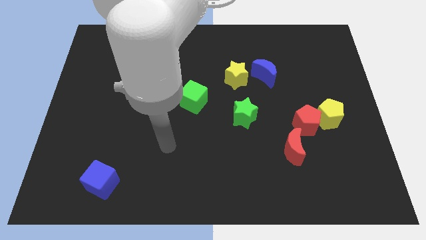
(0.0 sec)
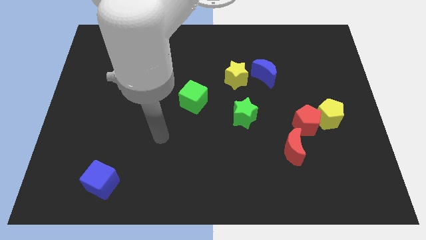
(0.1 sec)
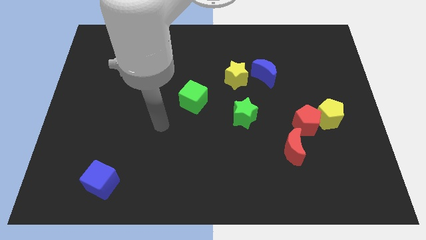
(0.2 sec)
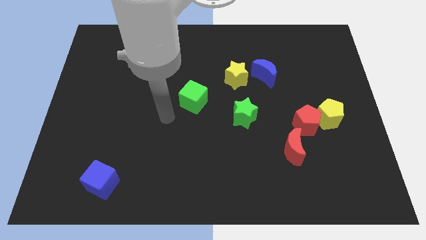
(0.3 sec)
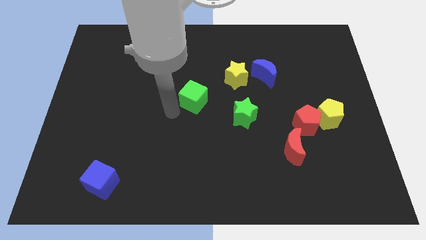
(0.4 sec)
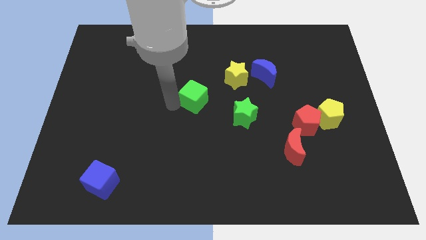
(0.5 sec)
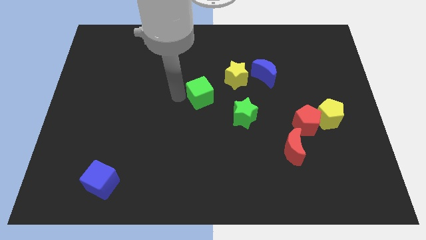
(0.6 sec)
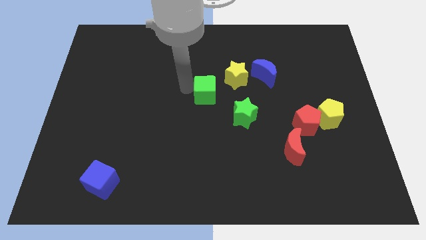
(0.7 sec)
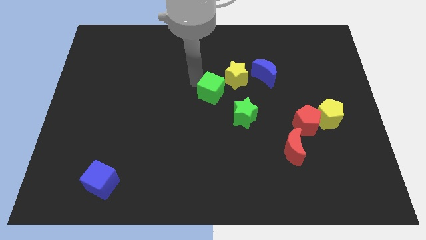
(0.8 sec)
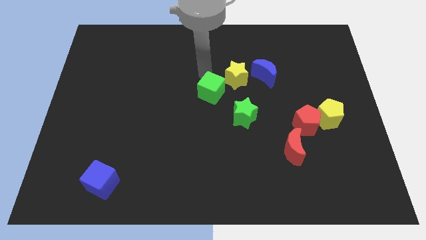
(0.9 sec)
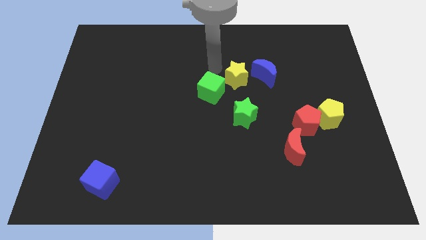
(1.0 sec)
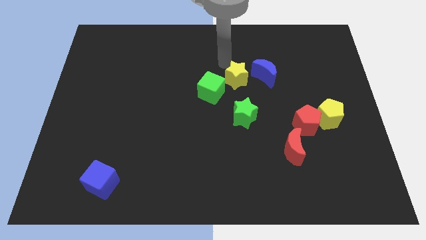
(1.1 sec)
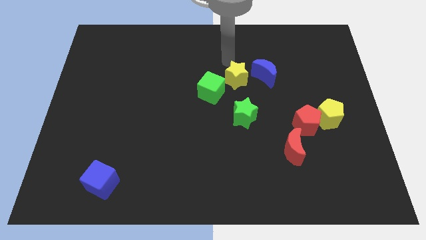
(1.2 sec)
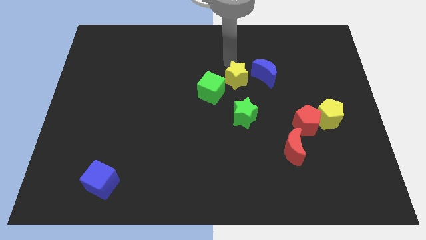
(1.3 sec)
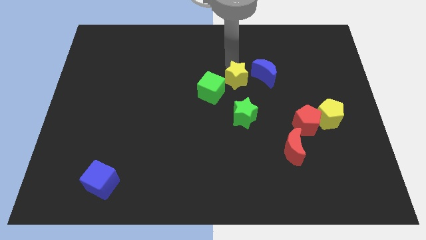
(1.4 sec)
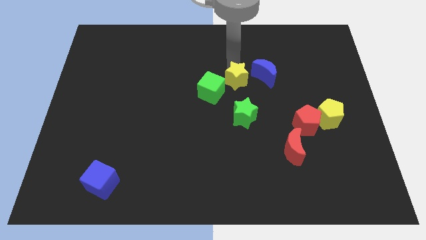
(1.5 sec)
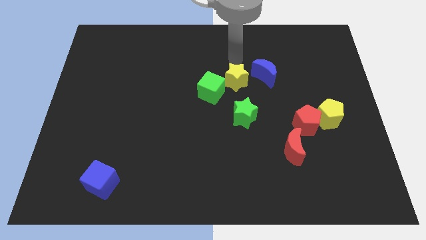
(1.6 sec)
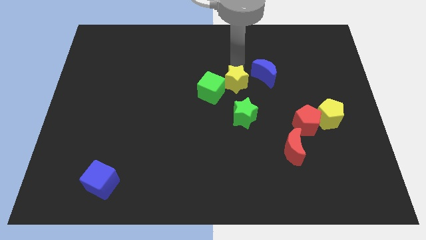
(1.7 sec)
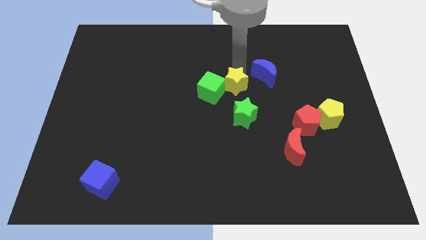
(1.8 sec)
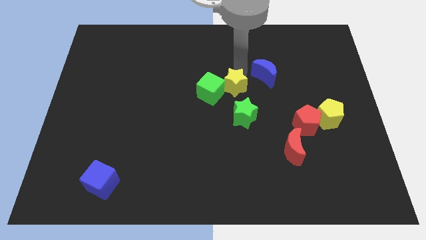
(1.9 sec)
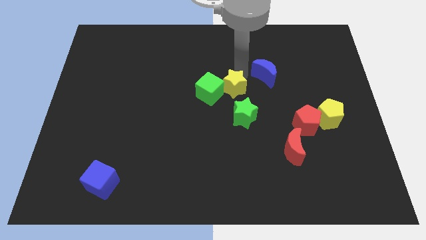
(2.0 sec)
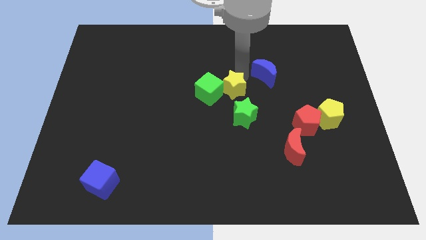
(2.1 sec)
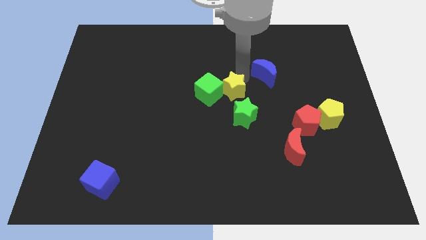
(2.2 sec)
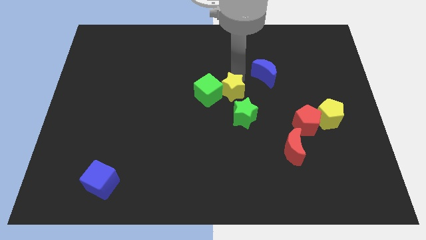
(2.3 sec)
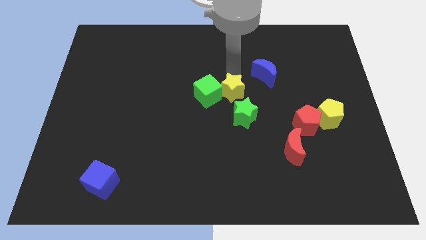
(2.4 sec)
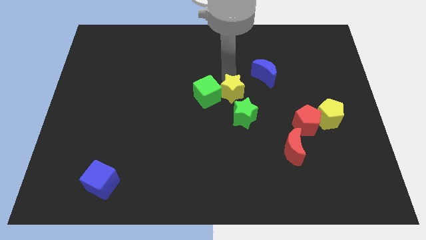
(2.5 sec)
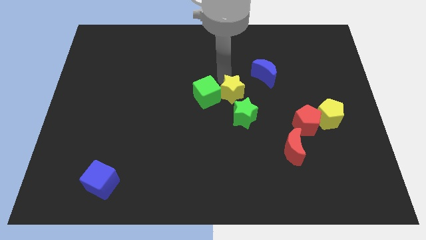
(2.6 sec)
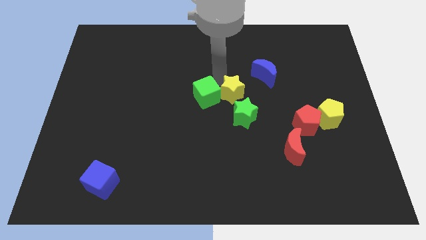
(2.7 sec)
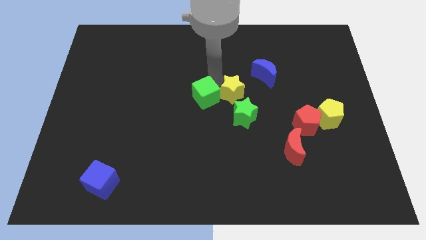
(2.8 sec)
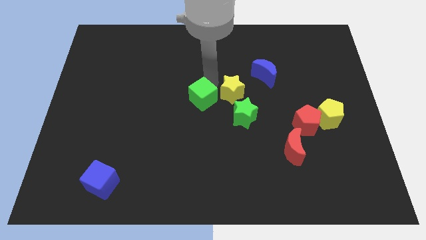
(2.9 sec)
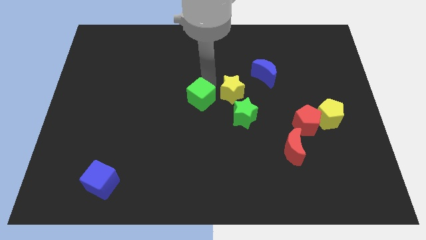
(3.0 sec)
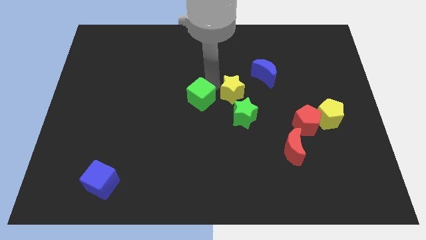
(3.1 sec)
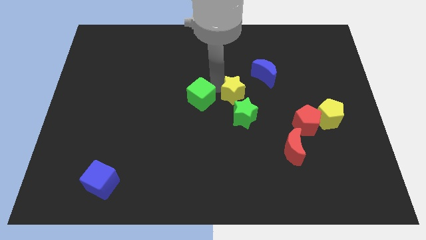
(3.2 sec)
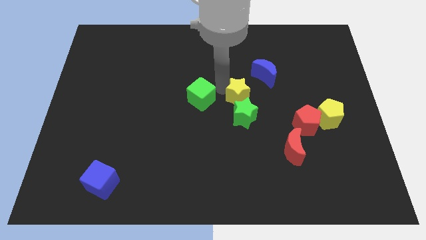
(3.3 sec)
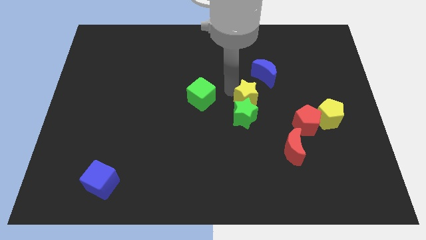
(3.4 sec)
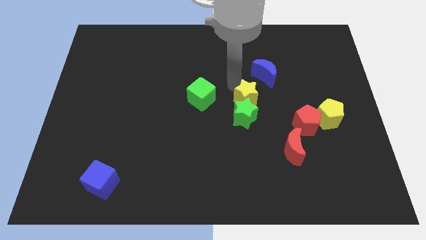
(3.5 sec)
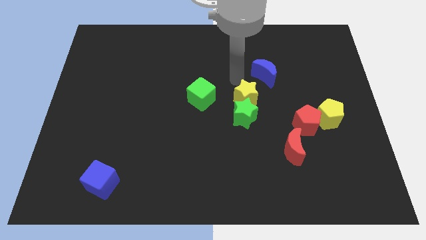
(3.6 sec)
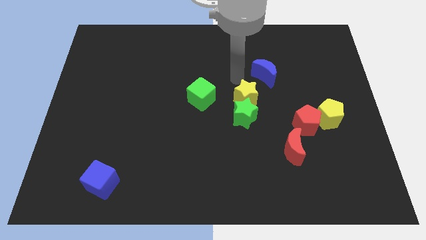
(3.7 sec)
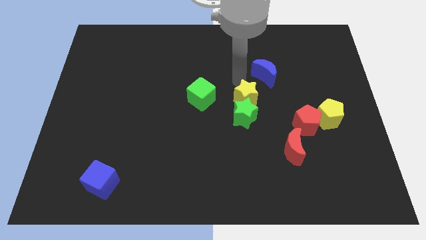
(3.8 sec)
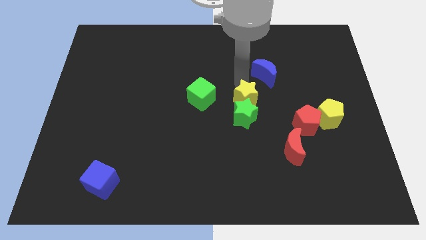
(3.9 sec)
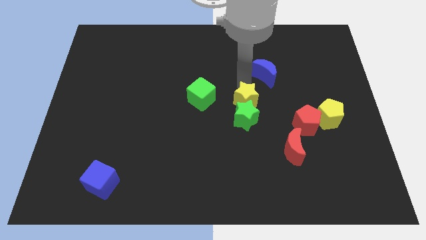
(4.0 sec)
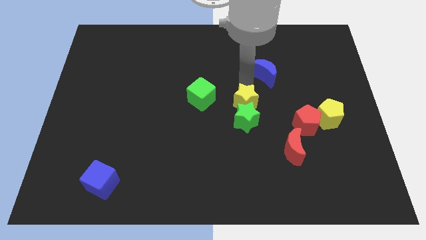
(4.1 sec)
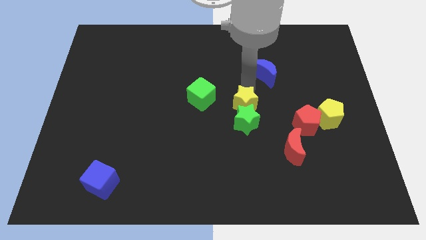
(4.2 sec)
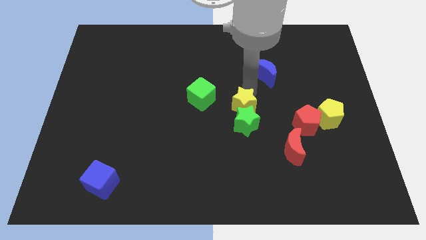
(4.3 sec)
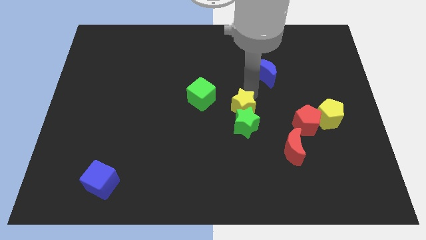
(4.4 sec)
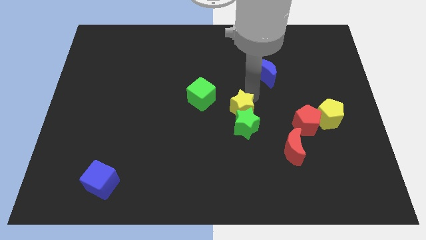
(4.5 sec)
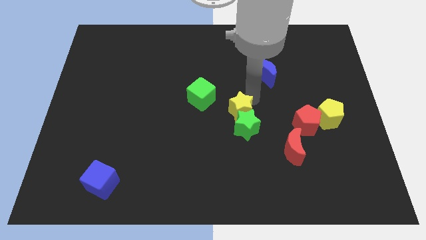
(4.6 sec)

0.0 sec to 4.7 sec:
push the yellow star to the left of the red pentagon

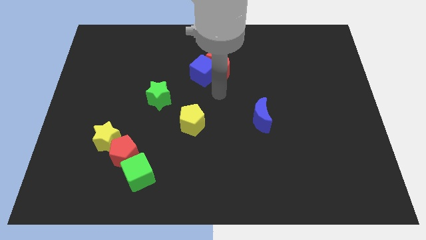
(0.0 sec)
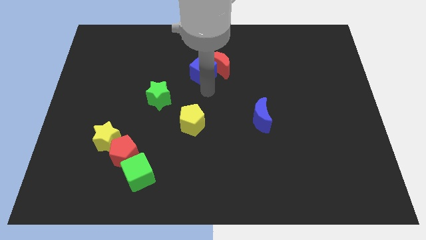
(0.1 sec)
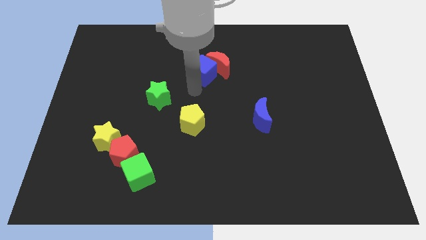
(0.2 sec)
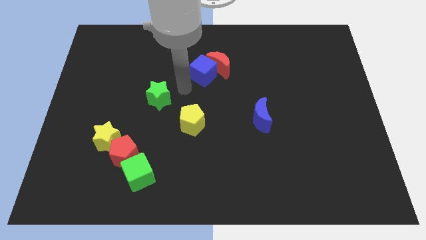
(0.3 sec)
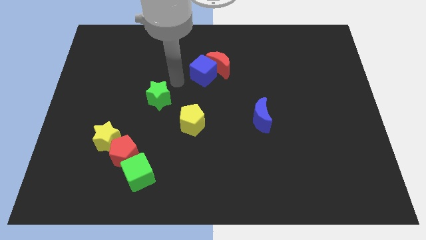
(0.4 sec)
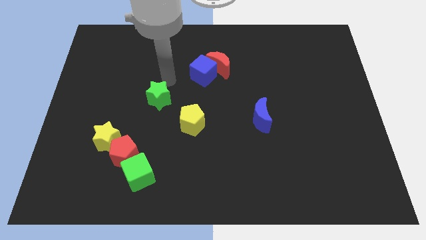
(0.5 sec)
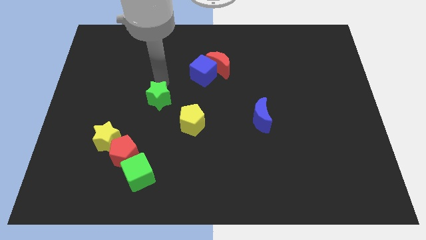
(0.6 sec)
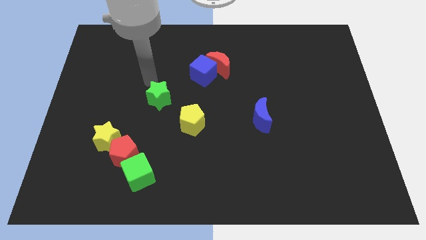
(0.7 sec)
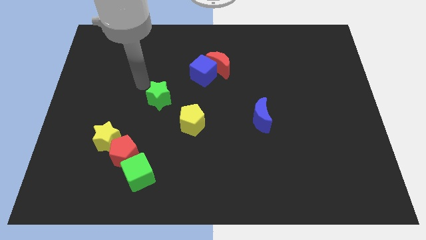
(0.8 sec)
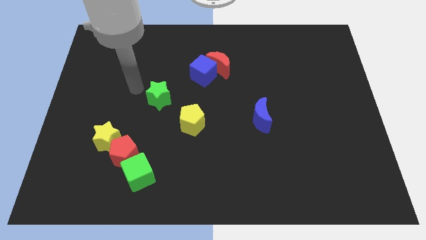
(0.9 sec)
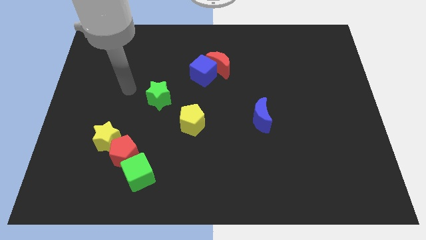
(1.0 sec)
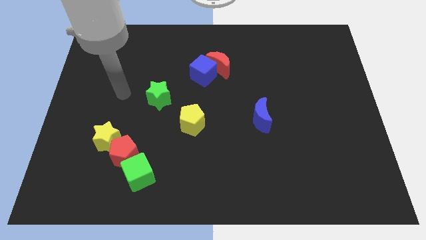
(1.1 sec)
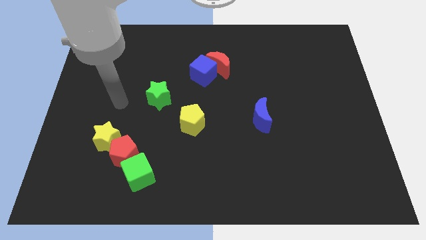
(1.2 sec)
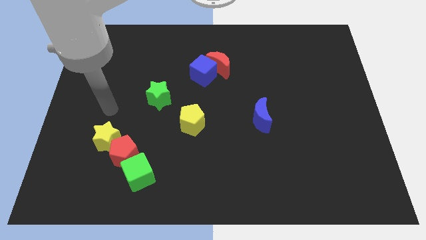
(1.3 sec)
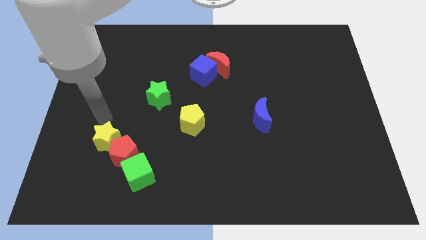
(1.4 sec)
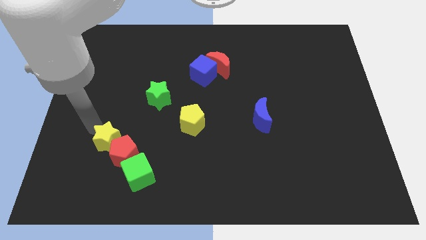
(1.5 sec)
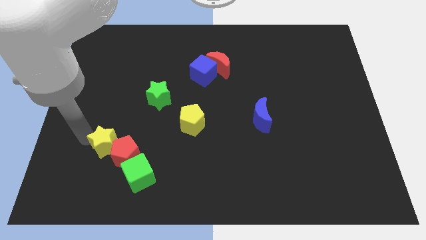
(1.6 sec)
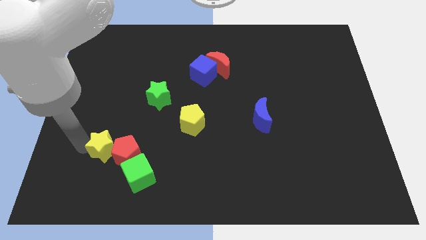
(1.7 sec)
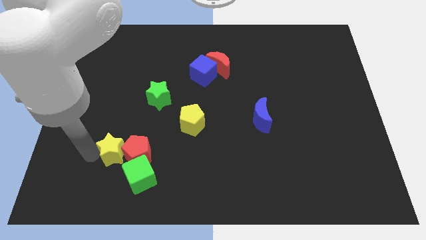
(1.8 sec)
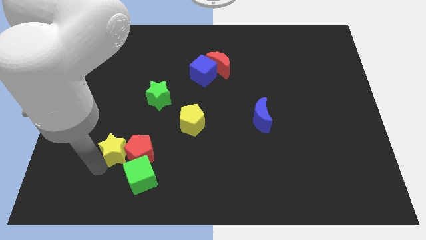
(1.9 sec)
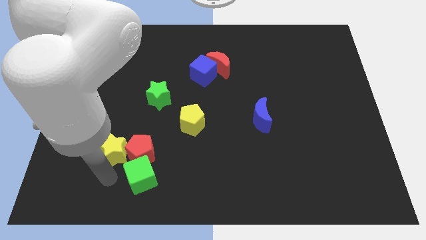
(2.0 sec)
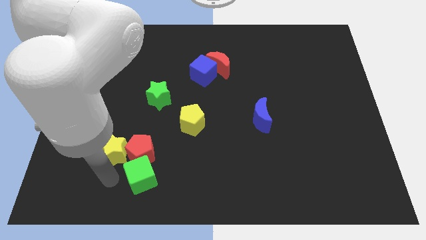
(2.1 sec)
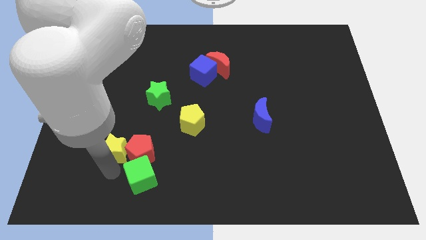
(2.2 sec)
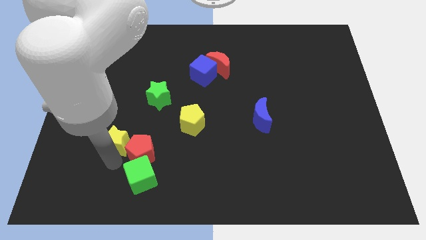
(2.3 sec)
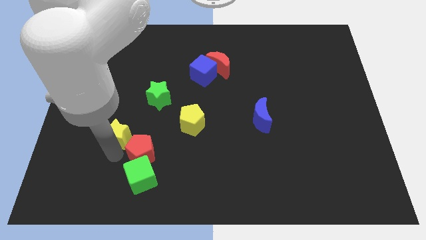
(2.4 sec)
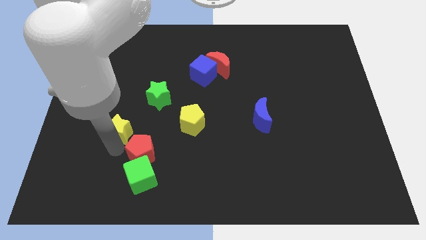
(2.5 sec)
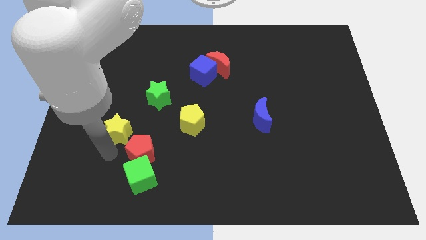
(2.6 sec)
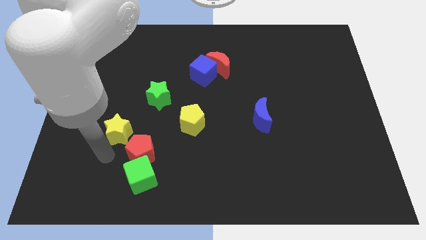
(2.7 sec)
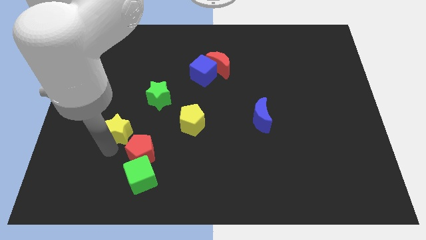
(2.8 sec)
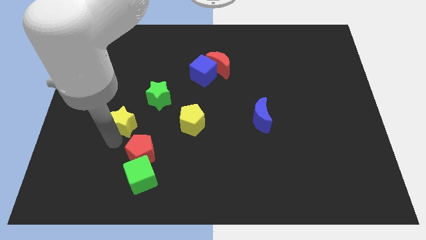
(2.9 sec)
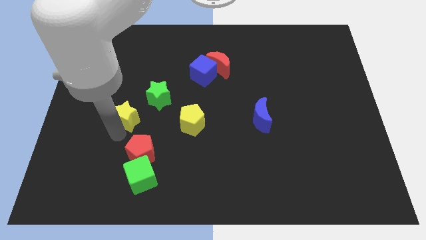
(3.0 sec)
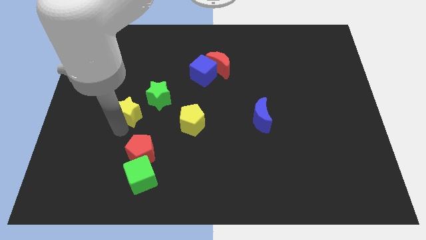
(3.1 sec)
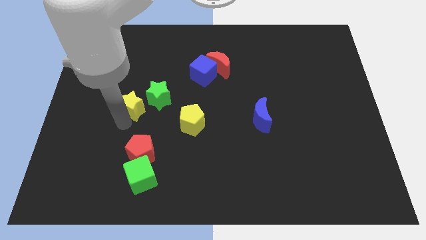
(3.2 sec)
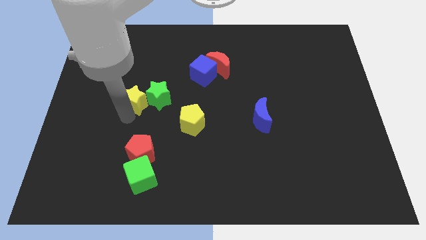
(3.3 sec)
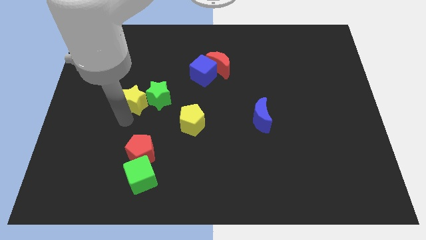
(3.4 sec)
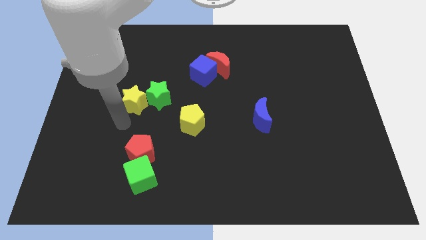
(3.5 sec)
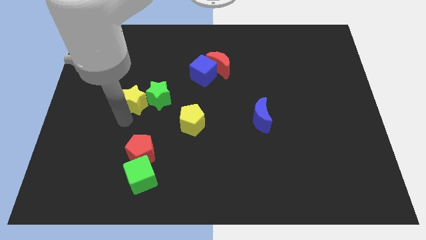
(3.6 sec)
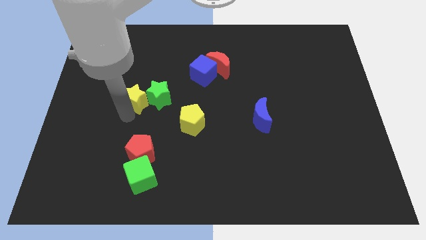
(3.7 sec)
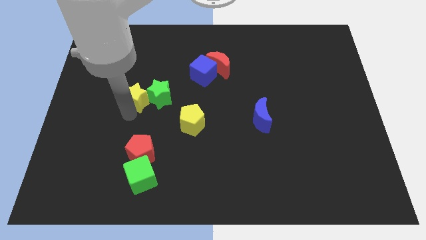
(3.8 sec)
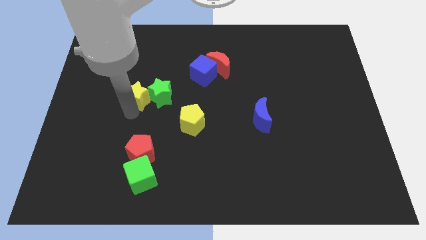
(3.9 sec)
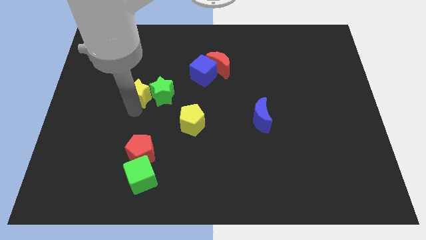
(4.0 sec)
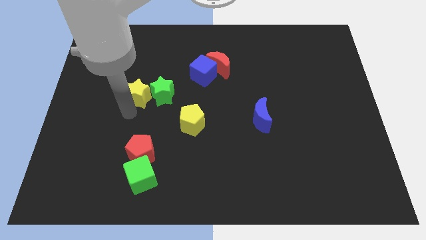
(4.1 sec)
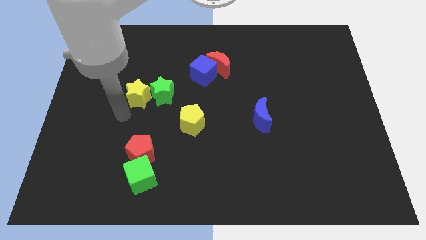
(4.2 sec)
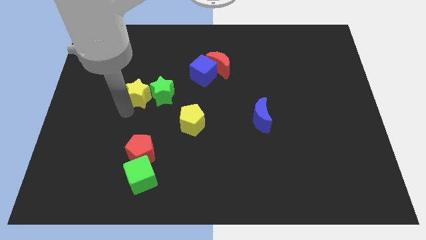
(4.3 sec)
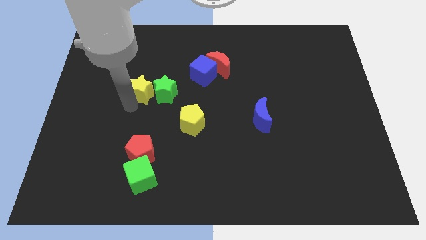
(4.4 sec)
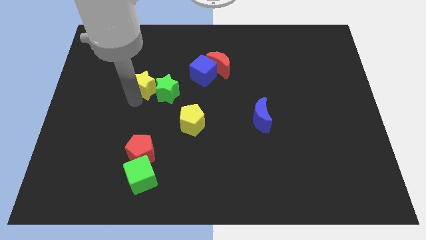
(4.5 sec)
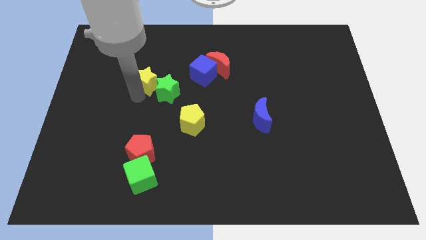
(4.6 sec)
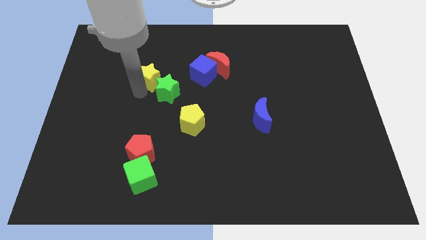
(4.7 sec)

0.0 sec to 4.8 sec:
slide the yellow star above the green star
